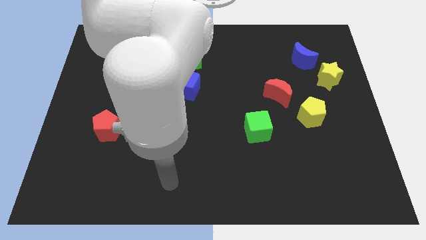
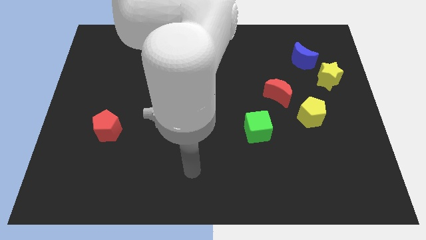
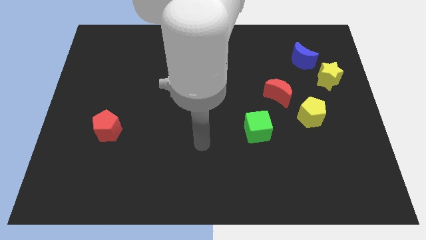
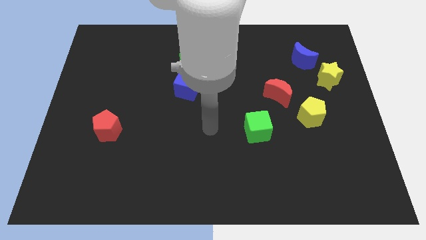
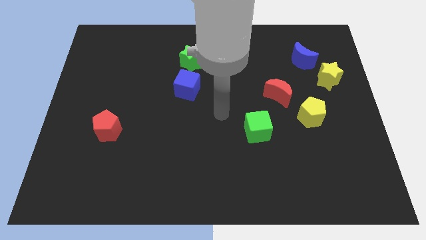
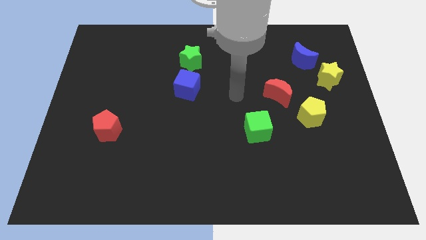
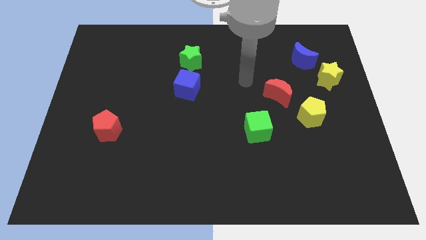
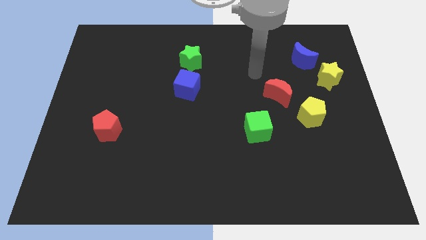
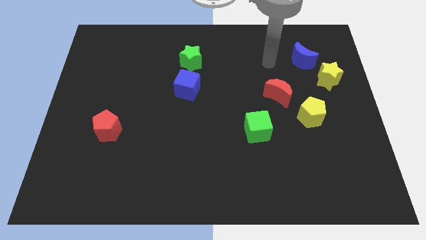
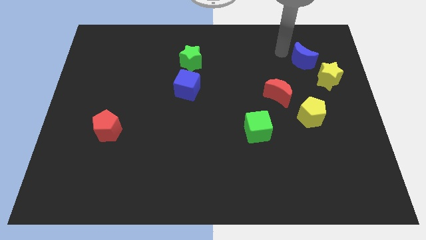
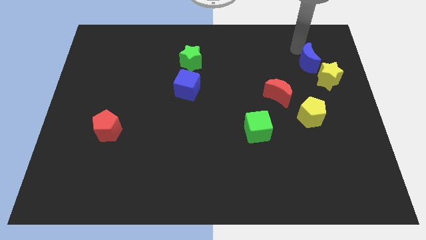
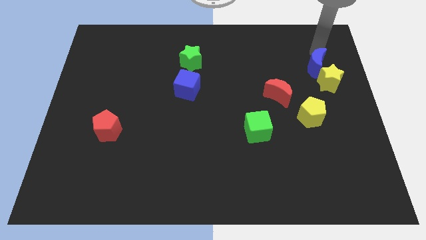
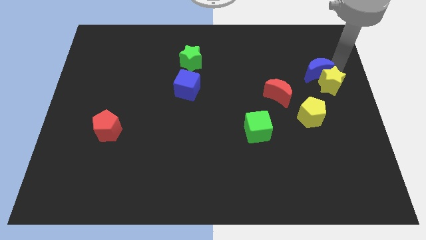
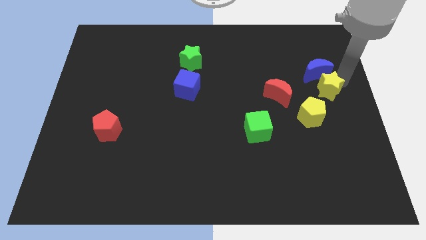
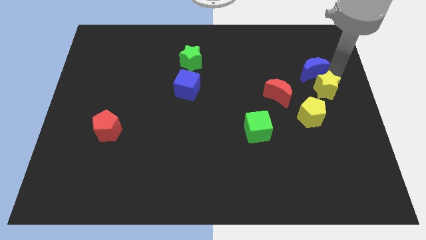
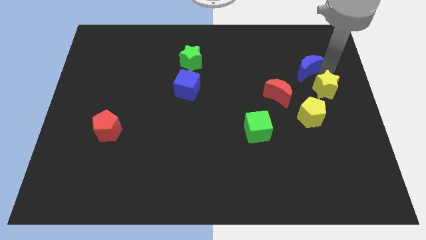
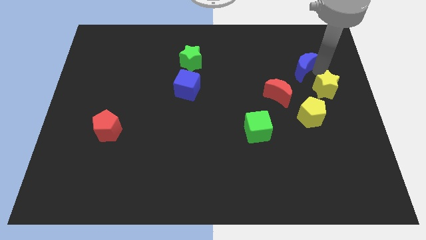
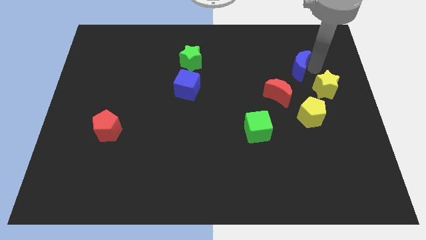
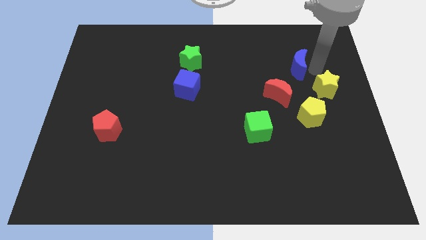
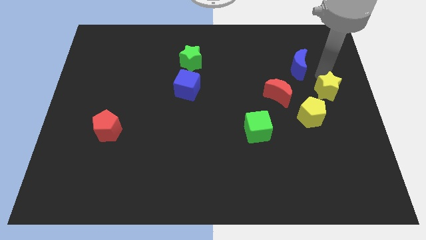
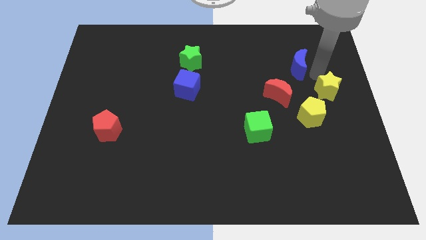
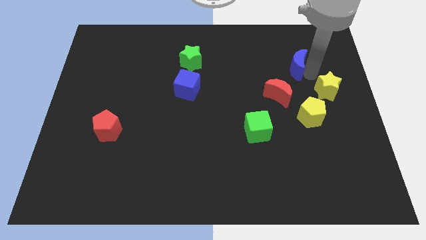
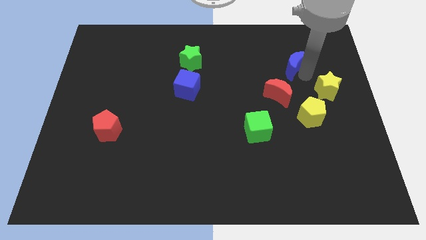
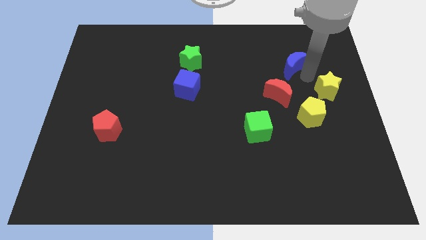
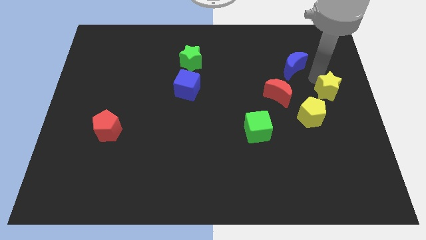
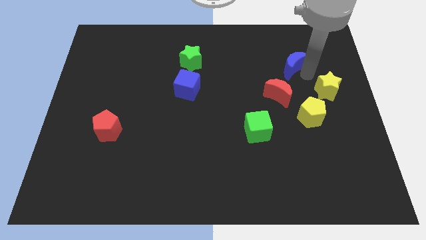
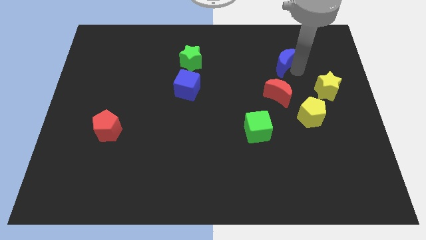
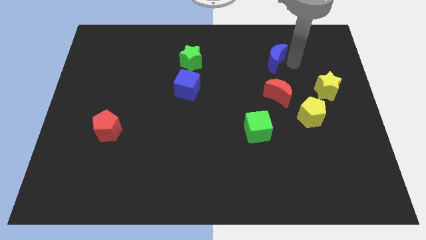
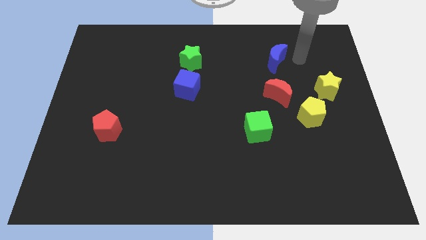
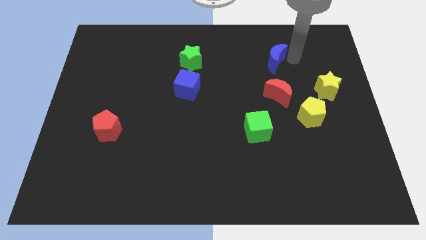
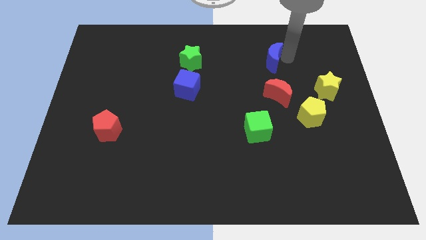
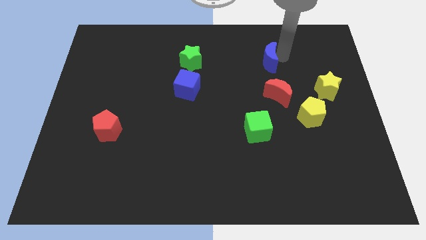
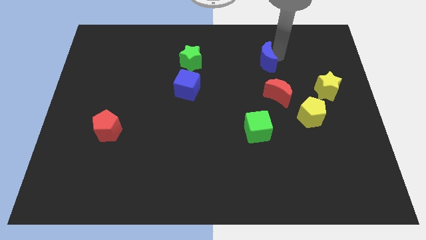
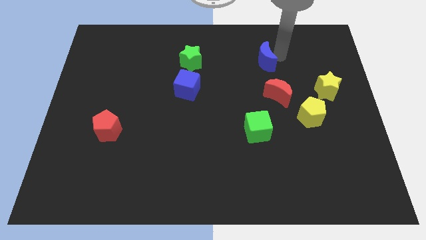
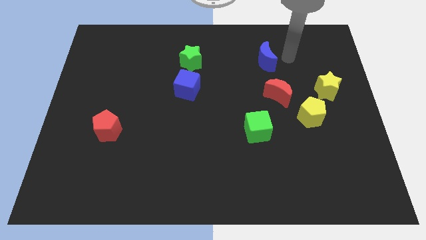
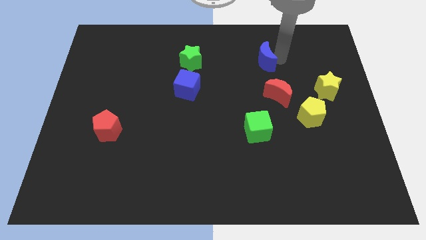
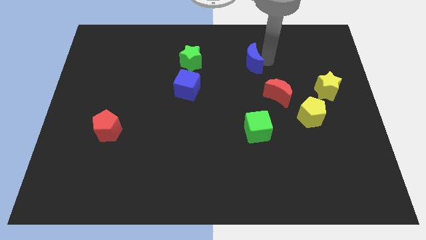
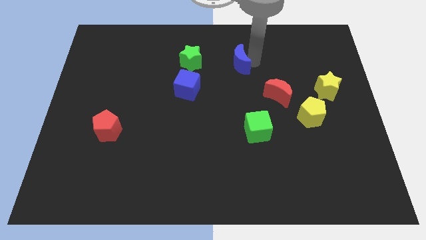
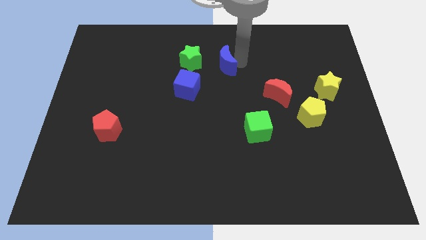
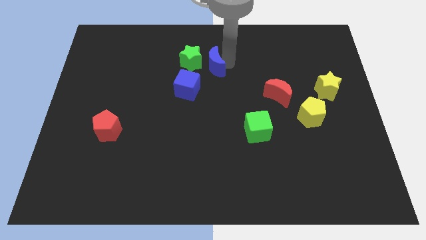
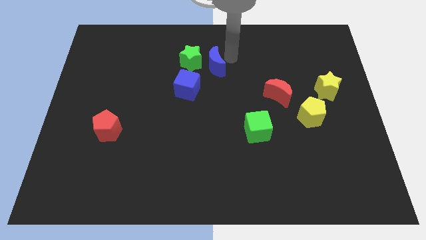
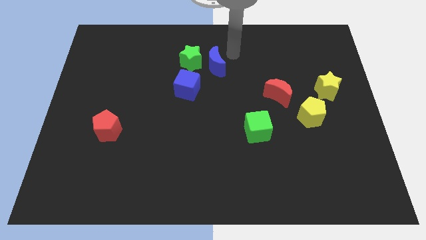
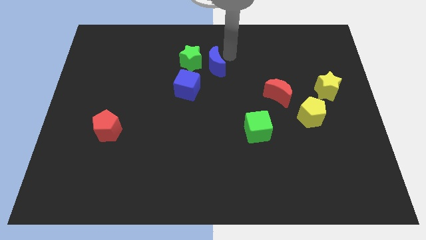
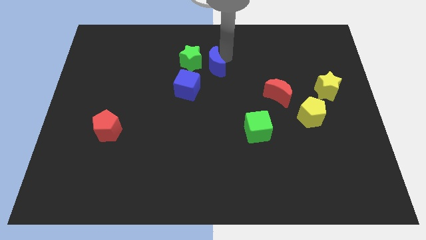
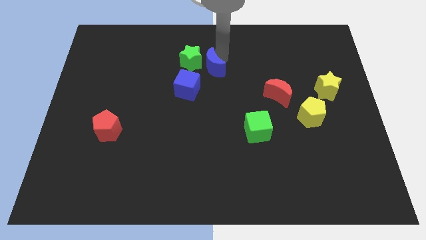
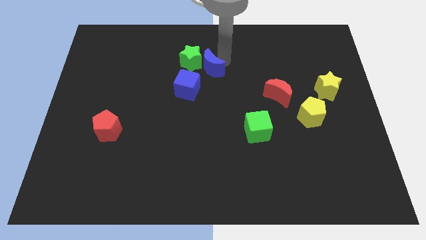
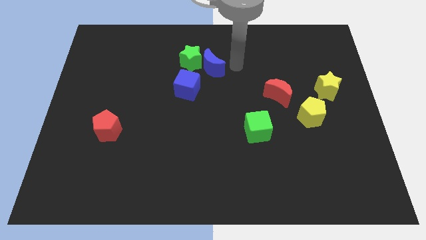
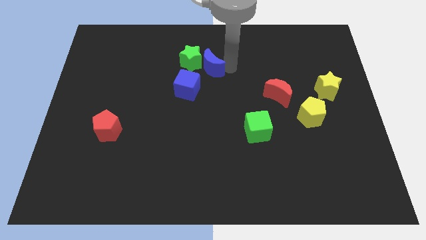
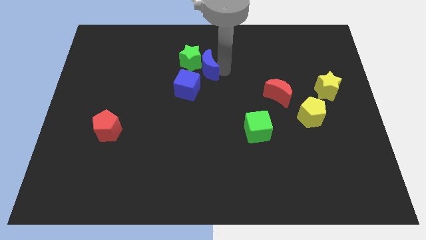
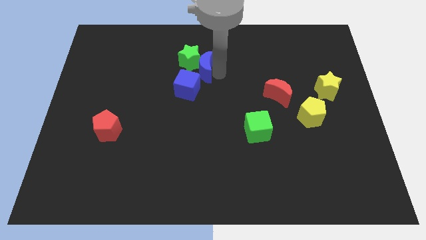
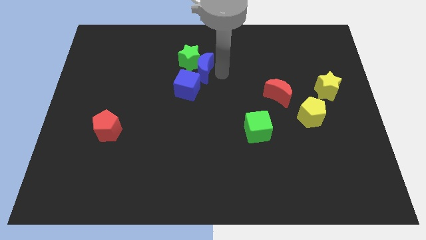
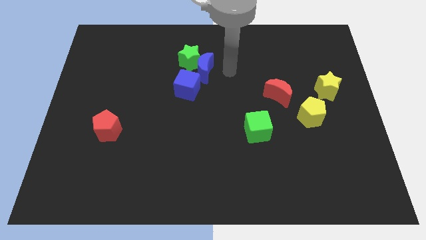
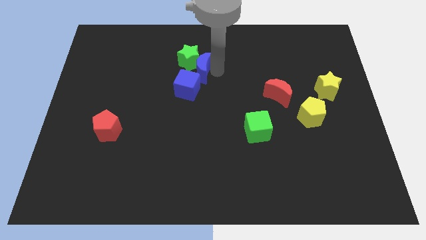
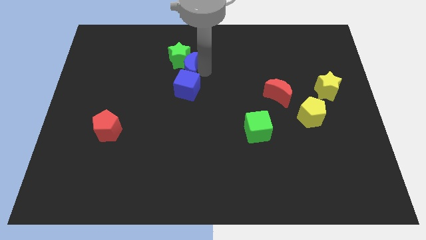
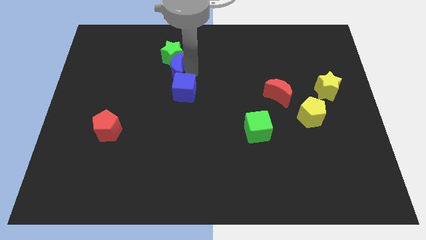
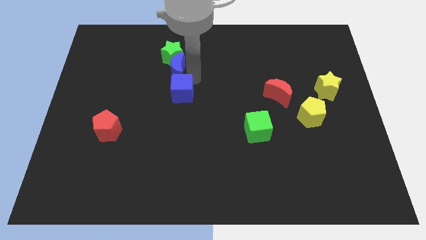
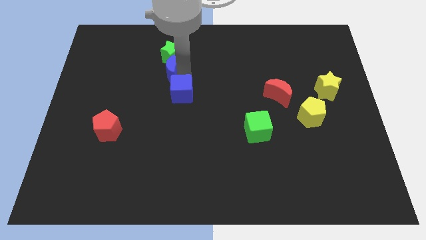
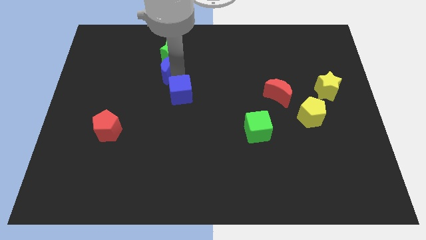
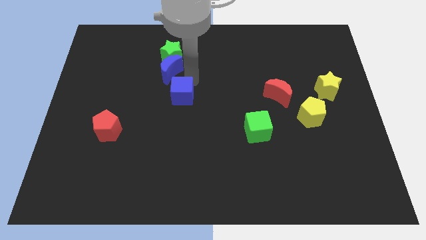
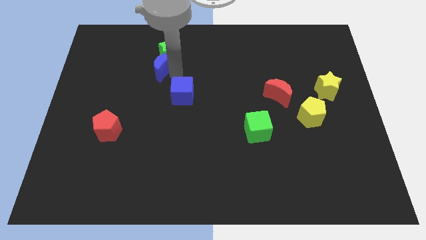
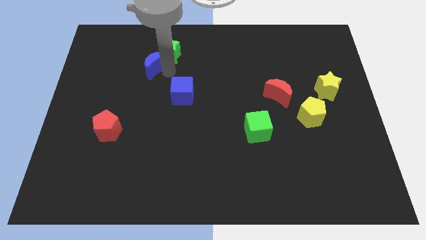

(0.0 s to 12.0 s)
push the blue moon to the left side of the green star
